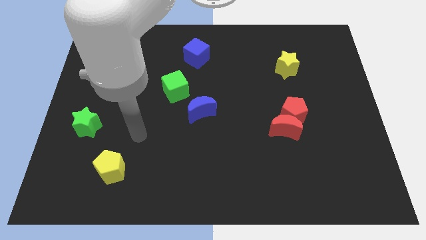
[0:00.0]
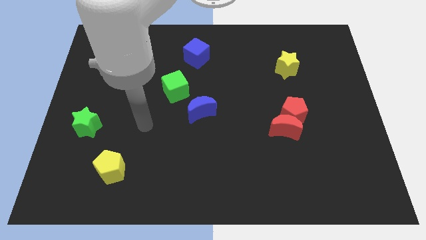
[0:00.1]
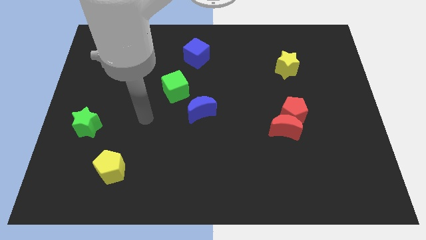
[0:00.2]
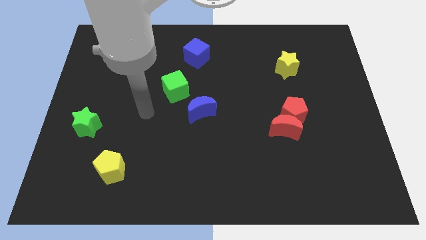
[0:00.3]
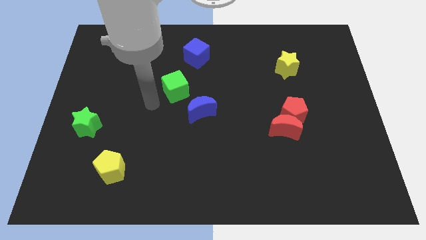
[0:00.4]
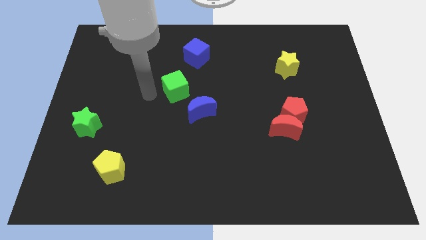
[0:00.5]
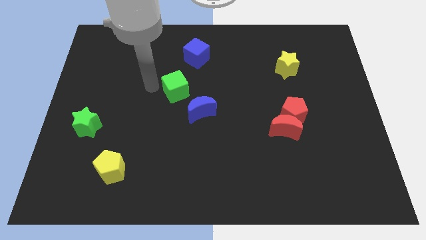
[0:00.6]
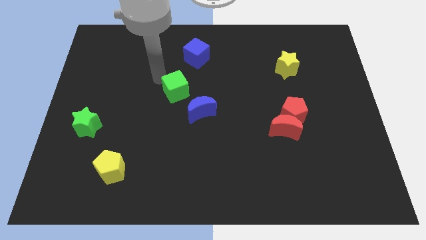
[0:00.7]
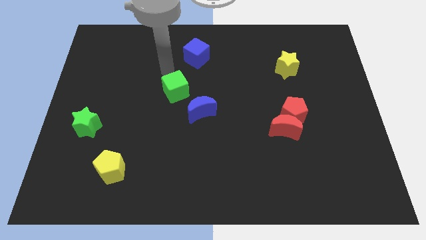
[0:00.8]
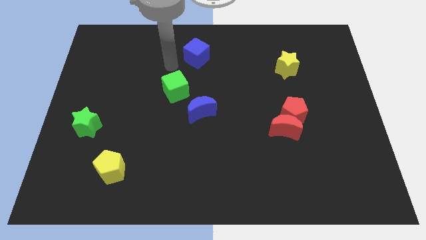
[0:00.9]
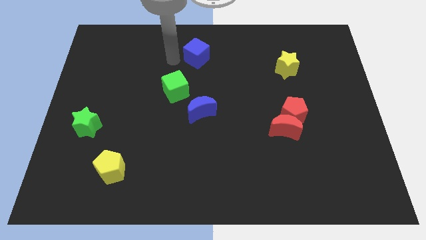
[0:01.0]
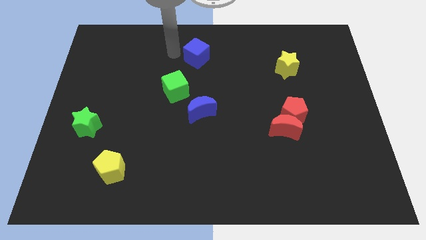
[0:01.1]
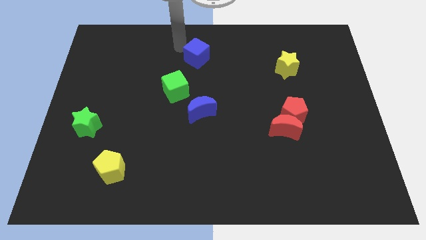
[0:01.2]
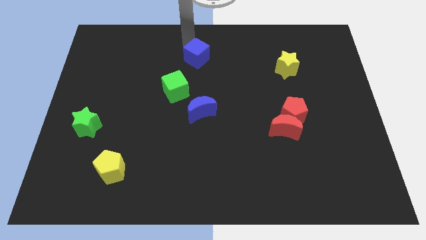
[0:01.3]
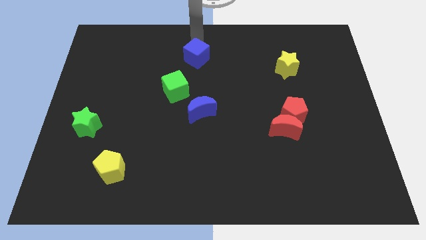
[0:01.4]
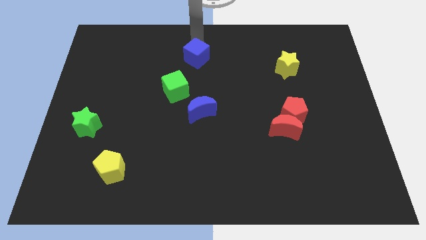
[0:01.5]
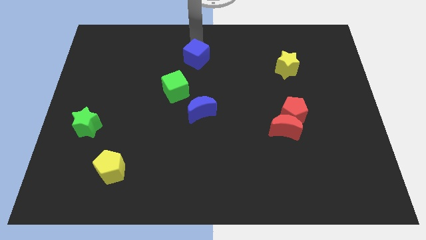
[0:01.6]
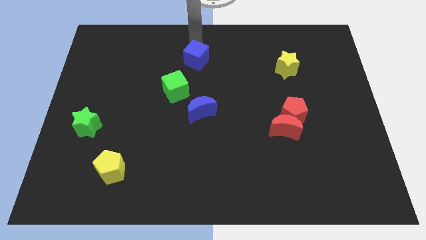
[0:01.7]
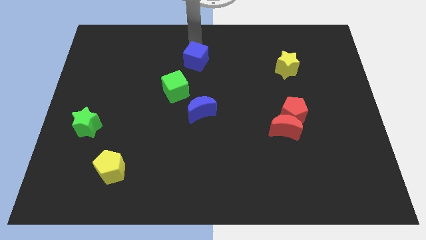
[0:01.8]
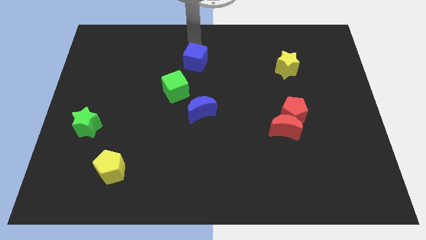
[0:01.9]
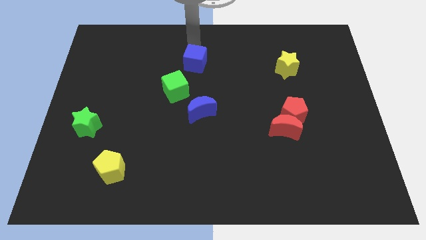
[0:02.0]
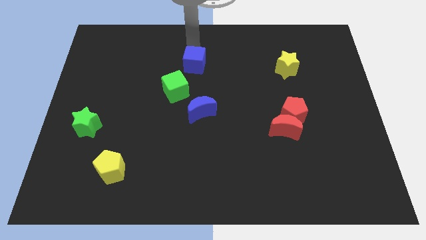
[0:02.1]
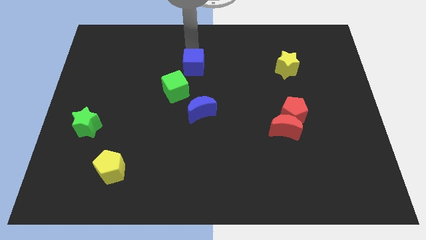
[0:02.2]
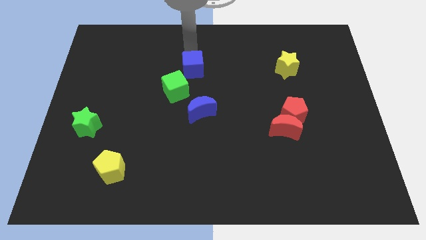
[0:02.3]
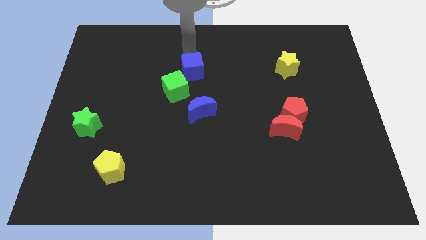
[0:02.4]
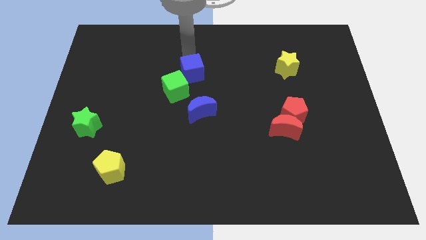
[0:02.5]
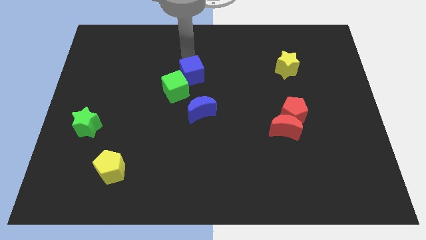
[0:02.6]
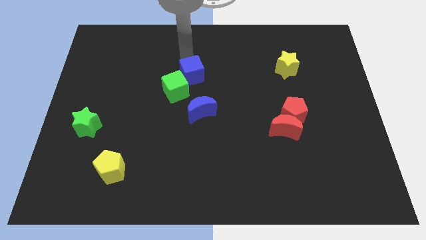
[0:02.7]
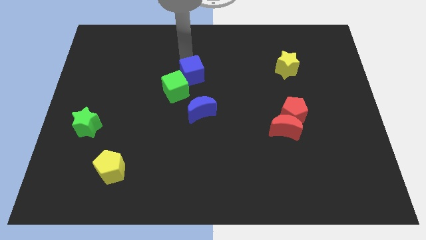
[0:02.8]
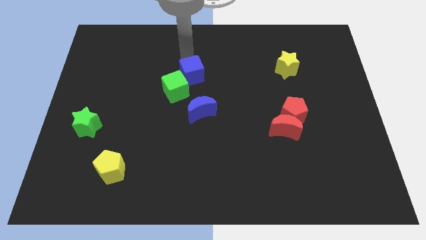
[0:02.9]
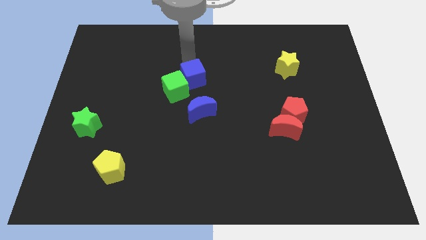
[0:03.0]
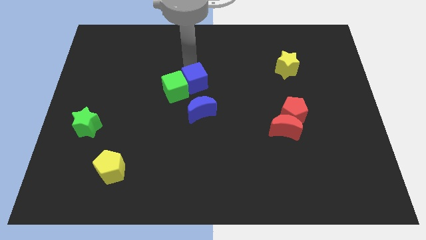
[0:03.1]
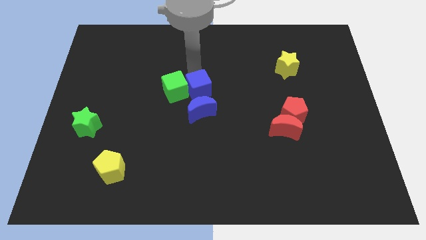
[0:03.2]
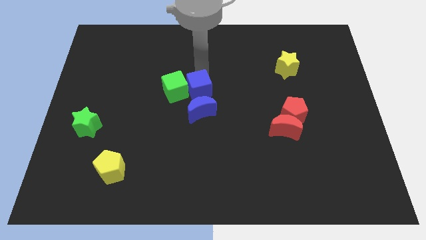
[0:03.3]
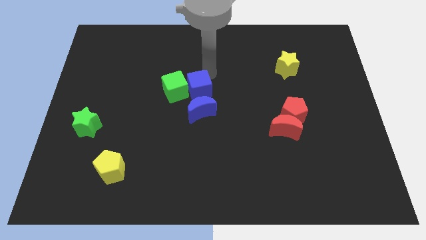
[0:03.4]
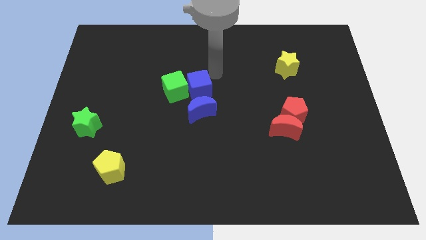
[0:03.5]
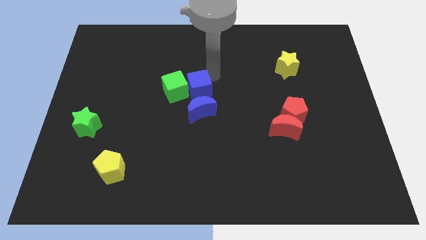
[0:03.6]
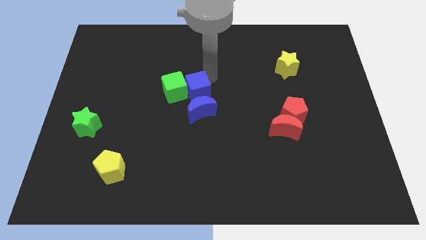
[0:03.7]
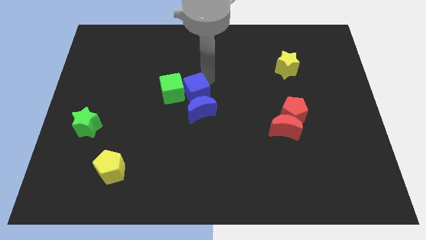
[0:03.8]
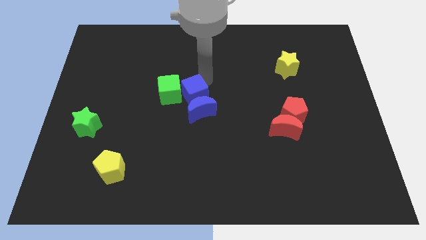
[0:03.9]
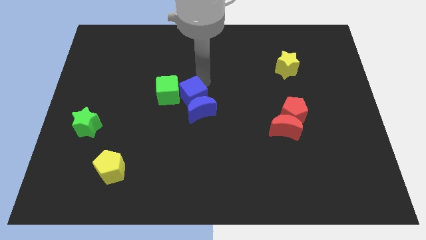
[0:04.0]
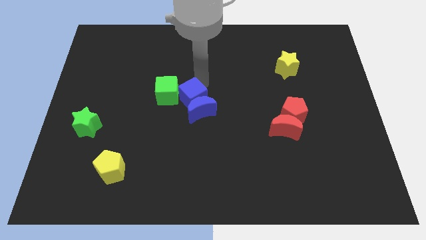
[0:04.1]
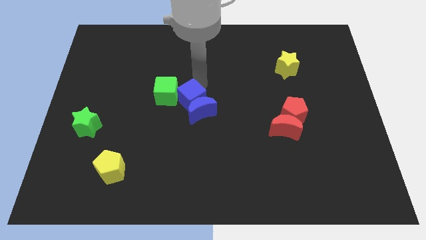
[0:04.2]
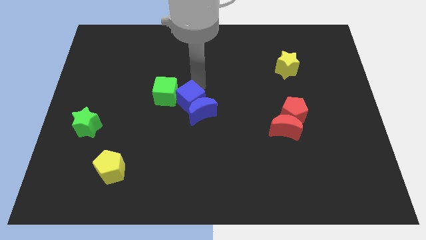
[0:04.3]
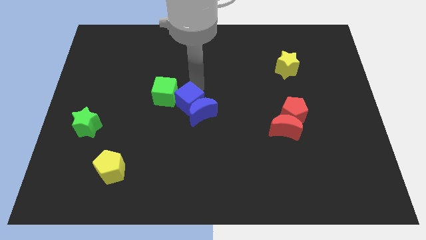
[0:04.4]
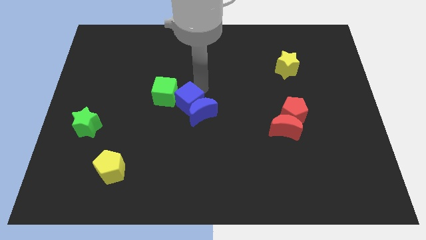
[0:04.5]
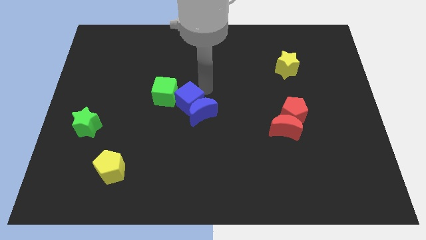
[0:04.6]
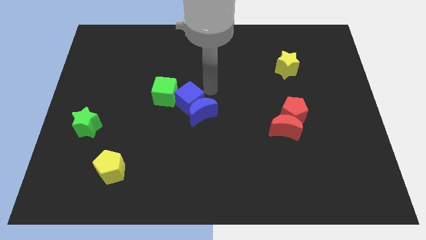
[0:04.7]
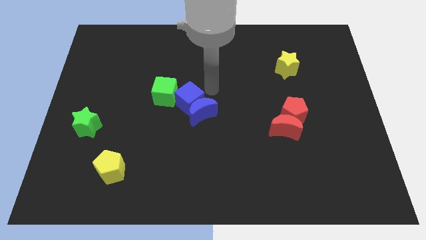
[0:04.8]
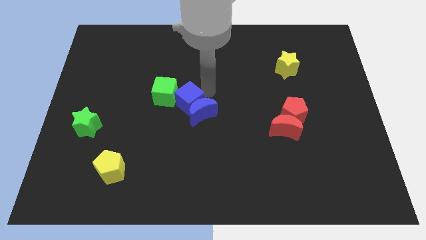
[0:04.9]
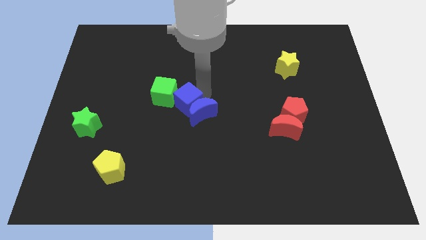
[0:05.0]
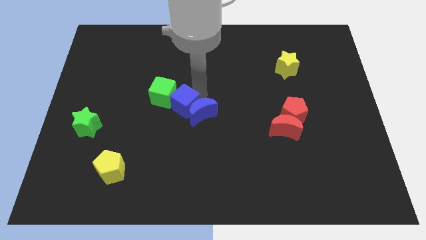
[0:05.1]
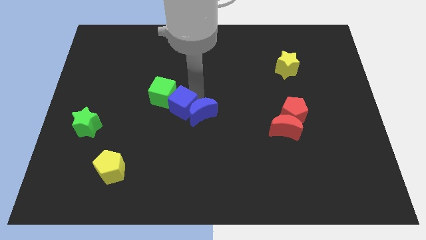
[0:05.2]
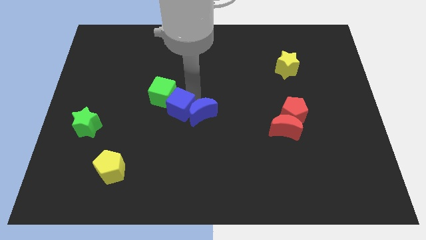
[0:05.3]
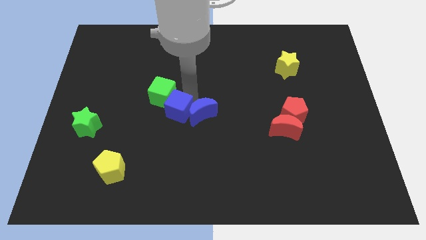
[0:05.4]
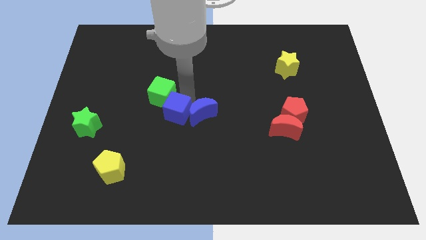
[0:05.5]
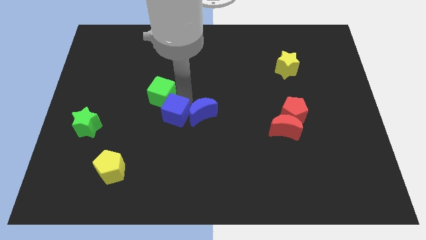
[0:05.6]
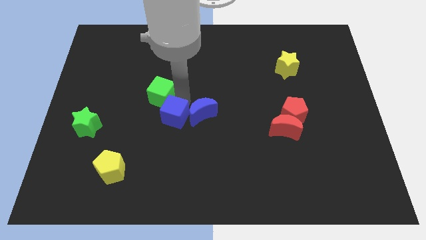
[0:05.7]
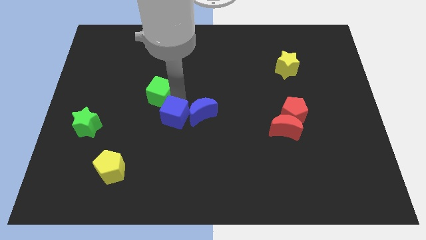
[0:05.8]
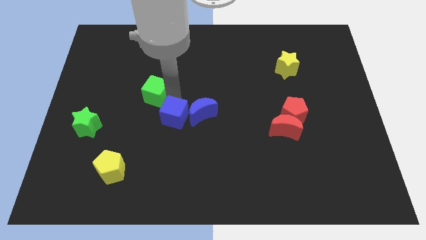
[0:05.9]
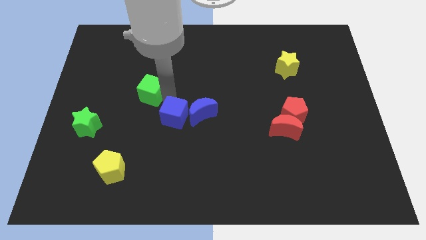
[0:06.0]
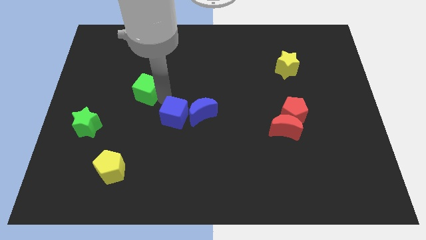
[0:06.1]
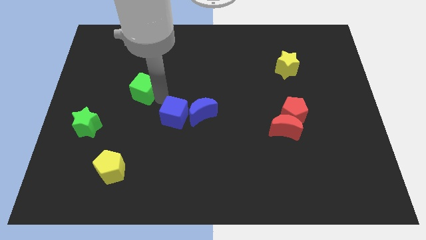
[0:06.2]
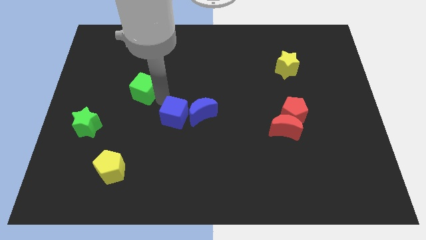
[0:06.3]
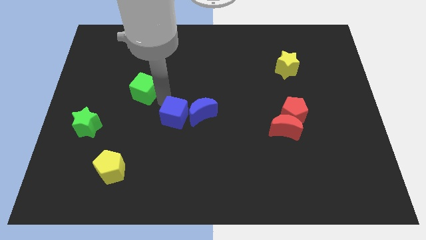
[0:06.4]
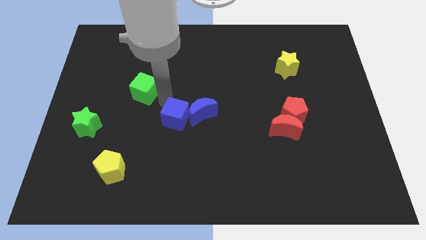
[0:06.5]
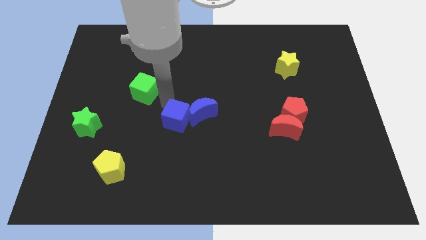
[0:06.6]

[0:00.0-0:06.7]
push the blue cube down

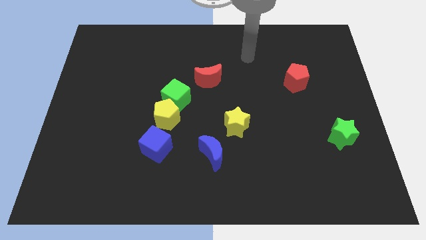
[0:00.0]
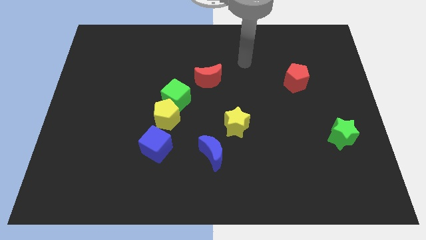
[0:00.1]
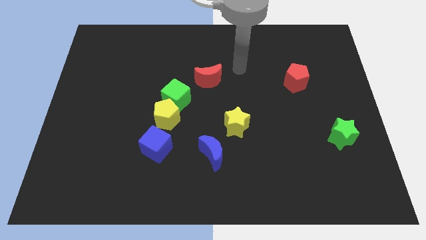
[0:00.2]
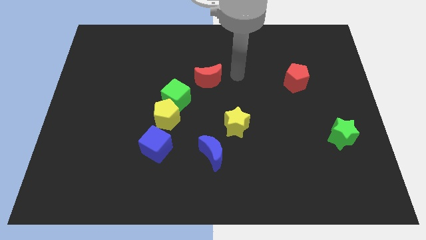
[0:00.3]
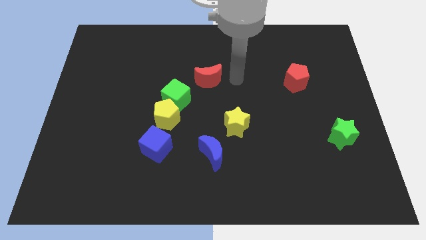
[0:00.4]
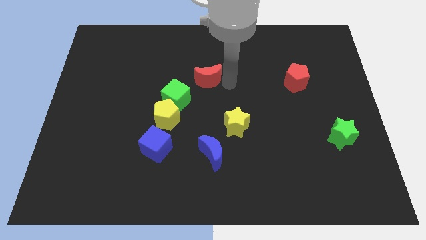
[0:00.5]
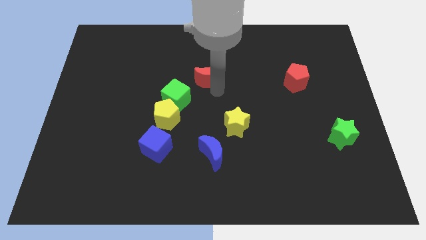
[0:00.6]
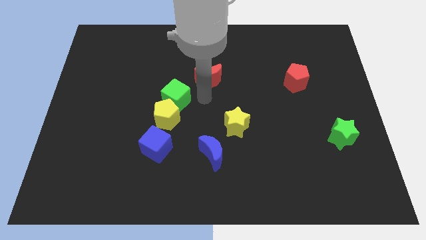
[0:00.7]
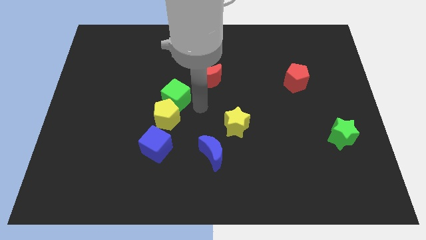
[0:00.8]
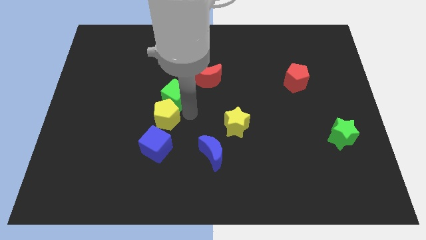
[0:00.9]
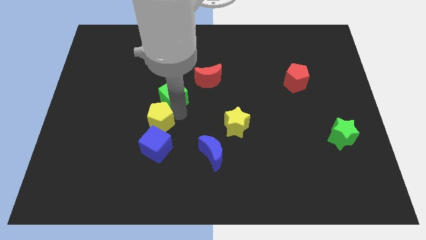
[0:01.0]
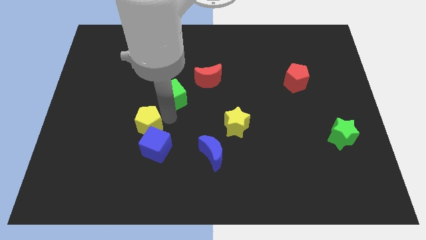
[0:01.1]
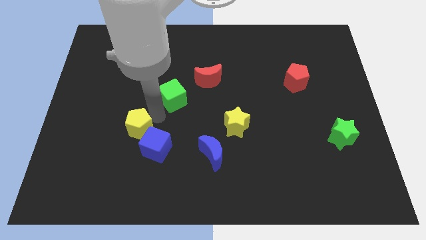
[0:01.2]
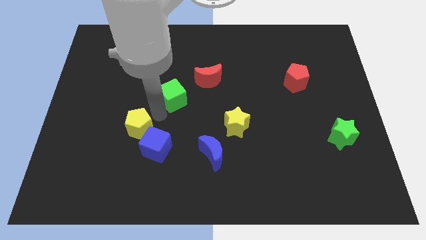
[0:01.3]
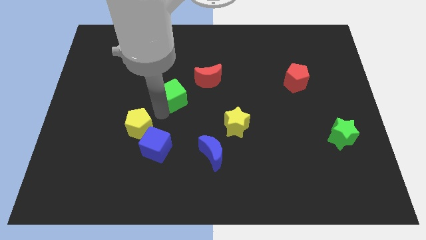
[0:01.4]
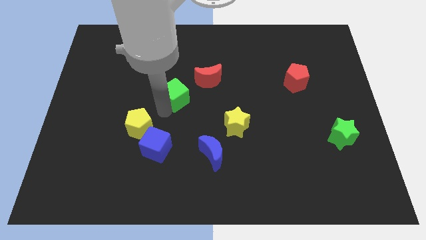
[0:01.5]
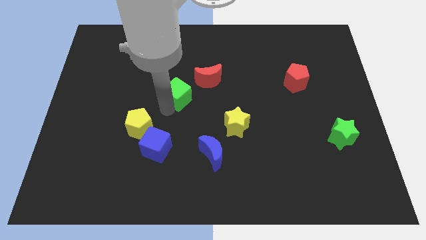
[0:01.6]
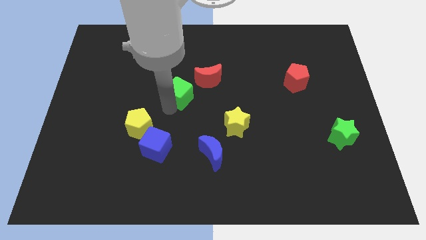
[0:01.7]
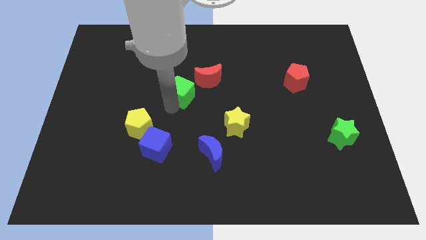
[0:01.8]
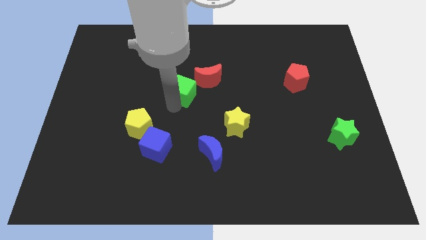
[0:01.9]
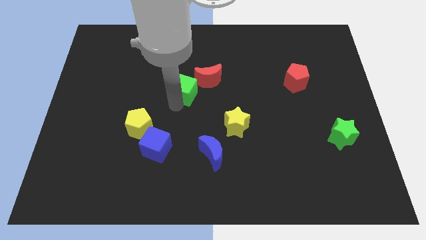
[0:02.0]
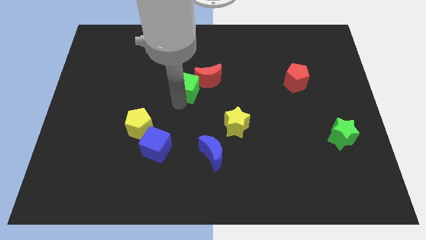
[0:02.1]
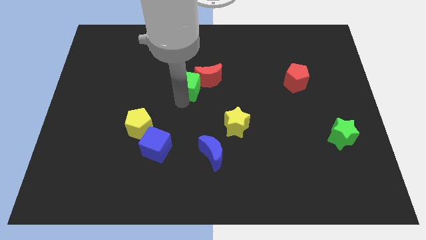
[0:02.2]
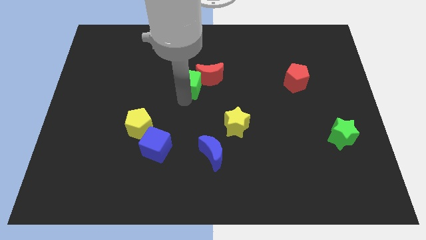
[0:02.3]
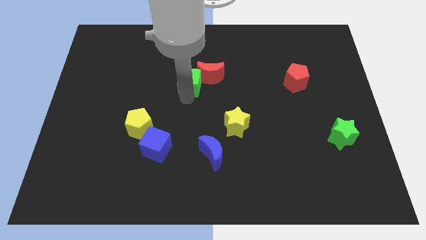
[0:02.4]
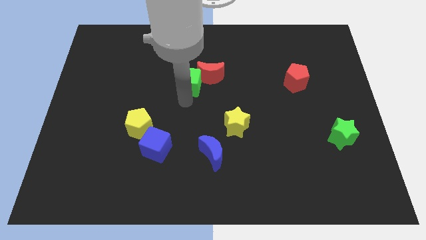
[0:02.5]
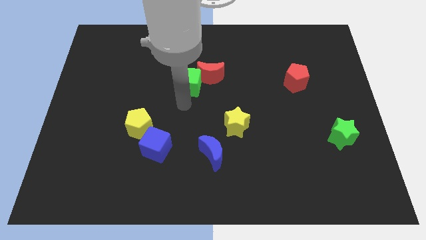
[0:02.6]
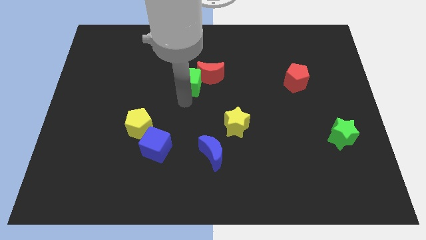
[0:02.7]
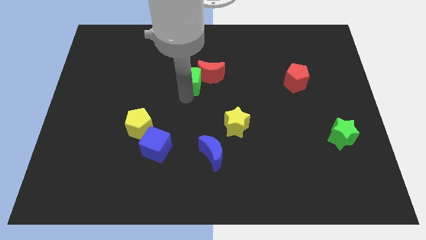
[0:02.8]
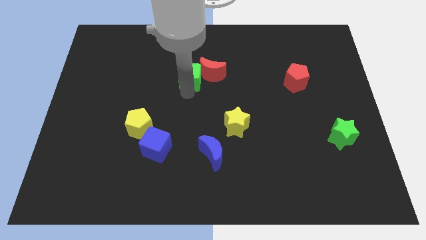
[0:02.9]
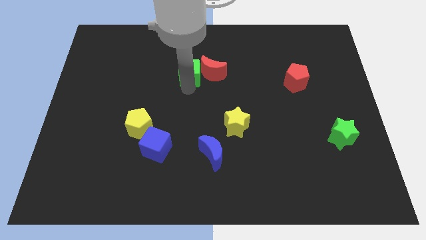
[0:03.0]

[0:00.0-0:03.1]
move the green cube up and right diagonally slightly
